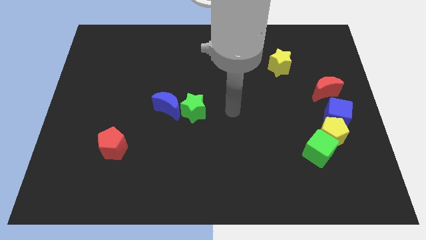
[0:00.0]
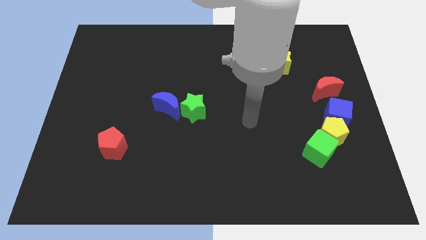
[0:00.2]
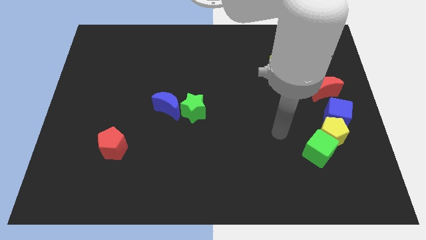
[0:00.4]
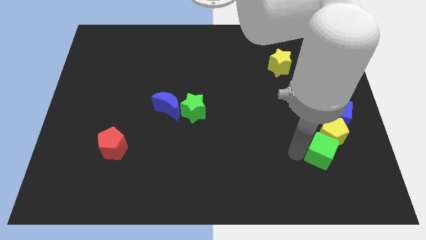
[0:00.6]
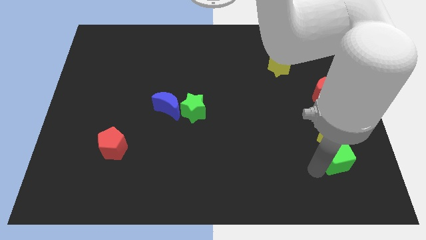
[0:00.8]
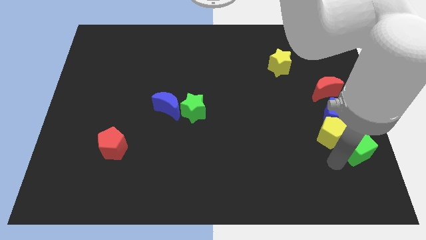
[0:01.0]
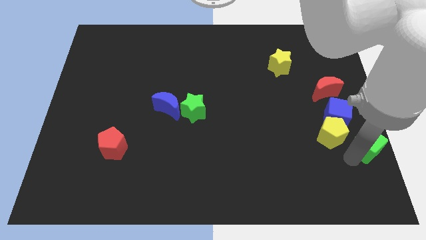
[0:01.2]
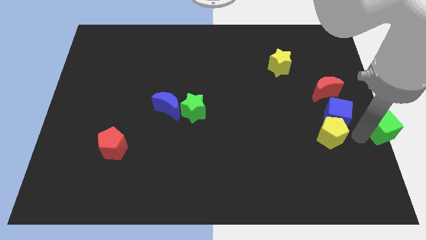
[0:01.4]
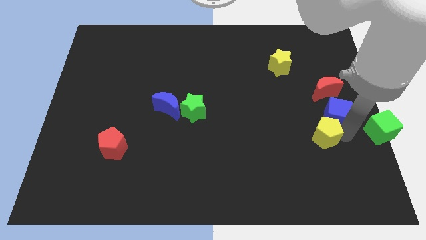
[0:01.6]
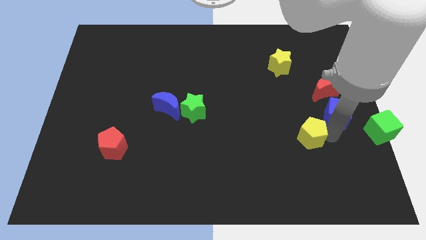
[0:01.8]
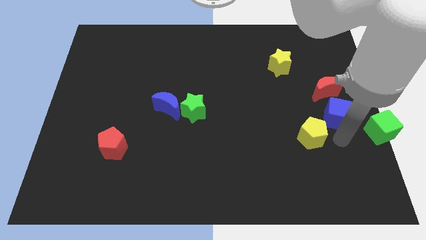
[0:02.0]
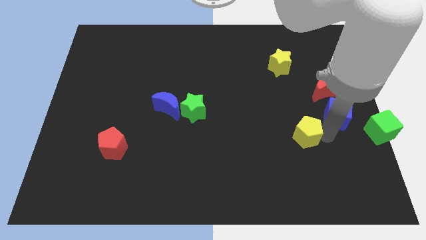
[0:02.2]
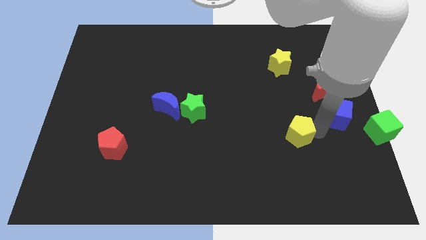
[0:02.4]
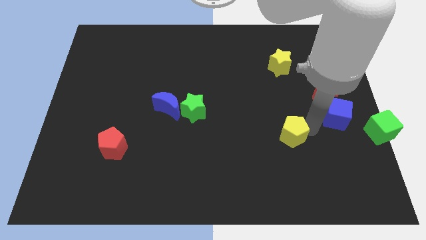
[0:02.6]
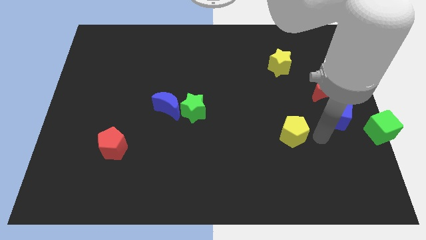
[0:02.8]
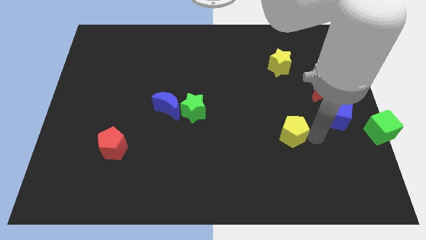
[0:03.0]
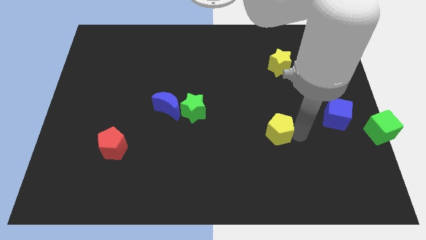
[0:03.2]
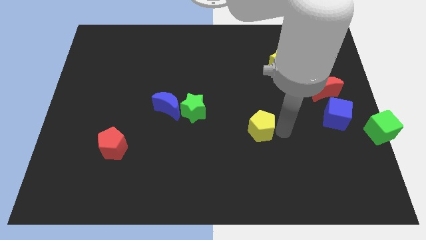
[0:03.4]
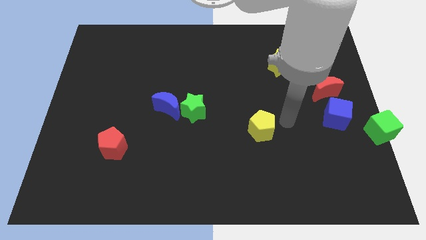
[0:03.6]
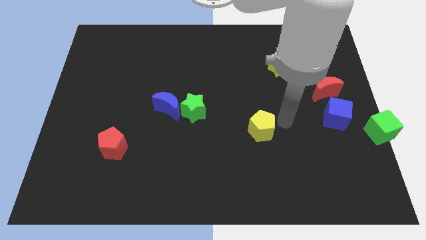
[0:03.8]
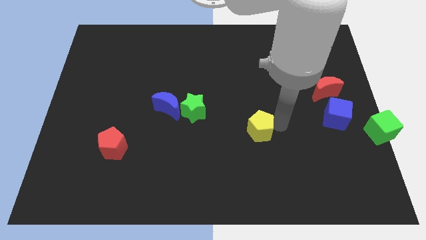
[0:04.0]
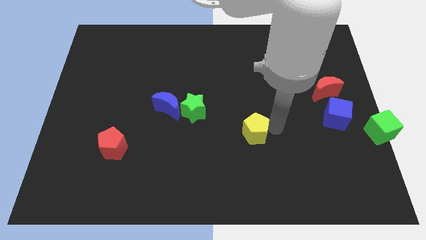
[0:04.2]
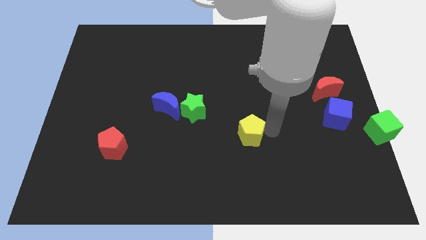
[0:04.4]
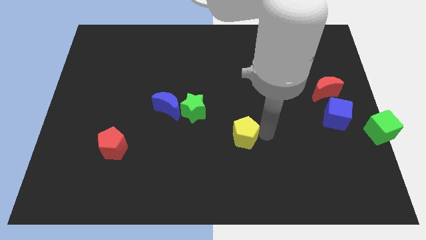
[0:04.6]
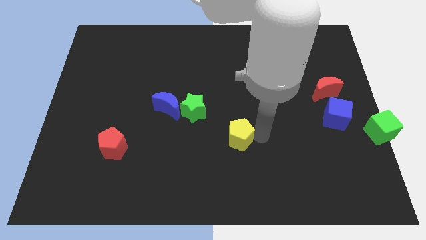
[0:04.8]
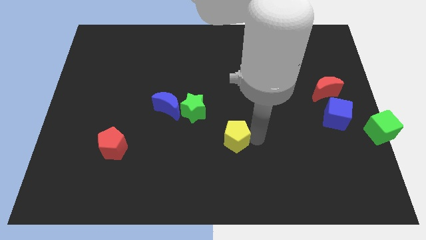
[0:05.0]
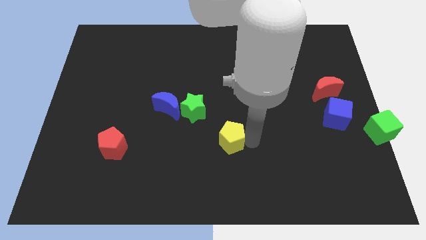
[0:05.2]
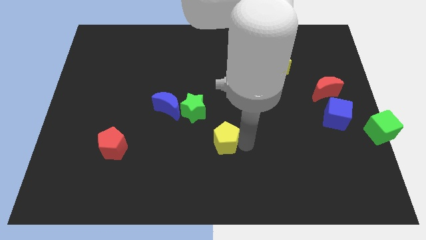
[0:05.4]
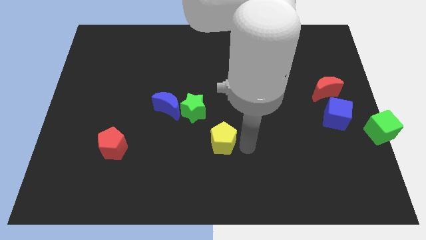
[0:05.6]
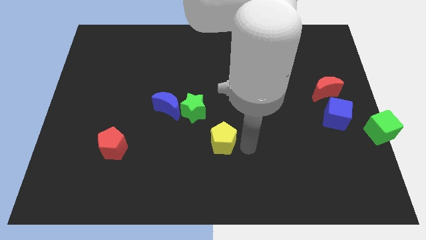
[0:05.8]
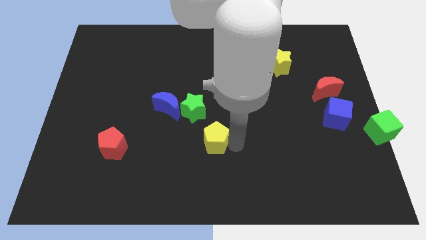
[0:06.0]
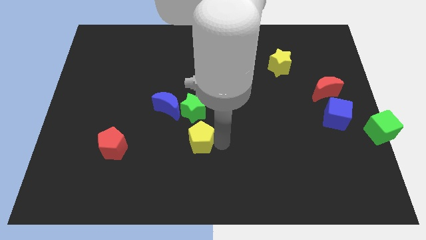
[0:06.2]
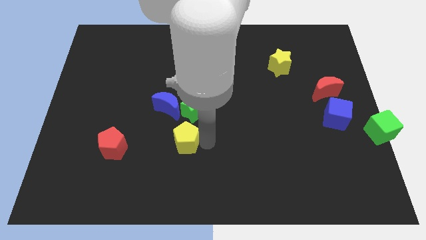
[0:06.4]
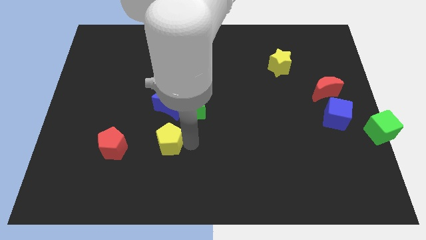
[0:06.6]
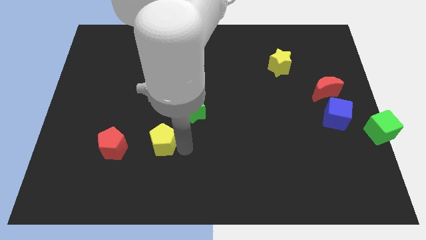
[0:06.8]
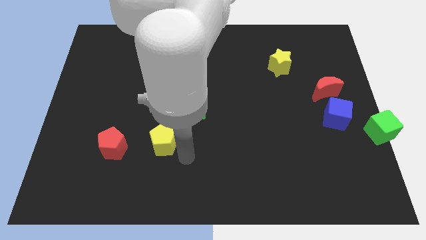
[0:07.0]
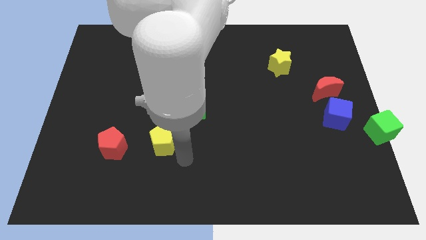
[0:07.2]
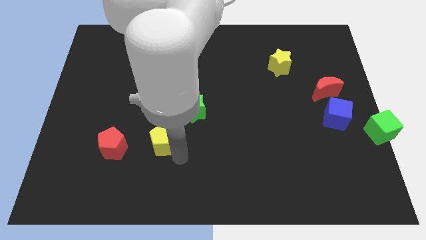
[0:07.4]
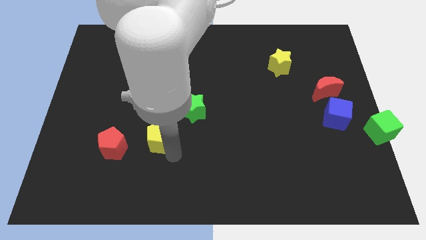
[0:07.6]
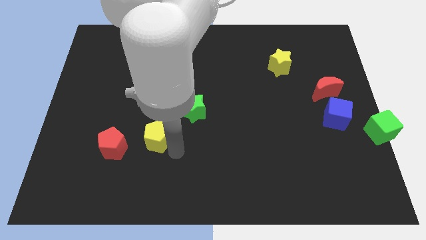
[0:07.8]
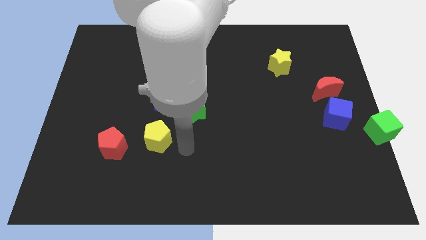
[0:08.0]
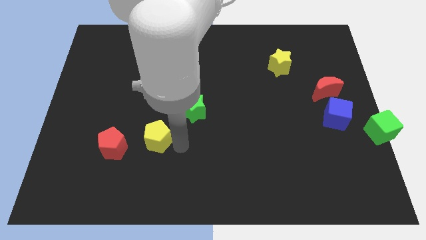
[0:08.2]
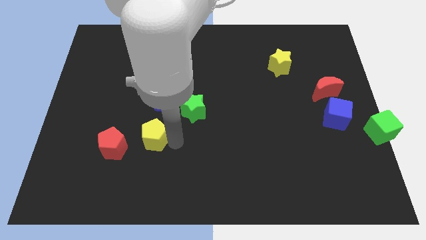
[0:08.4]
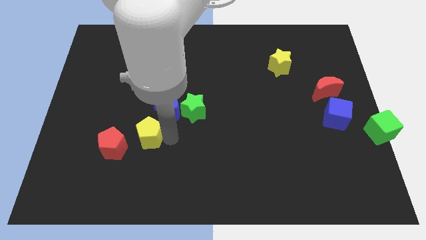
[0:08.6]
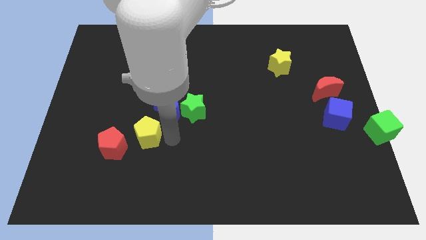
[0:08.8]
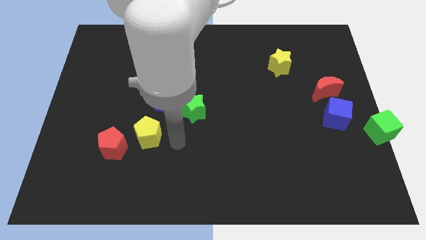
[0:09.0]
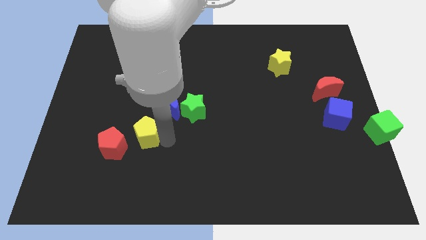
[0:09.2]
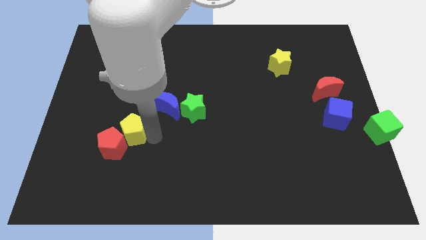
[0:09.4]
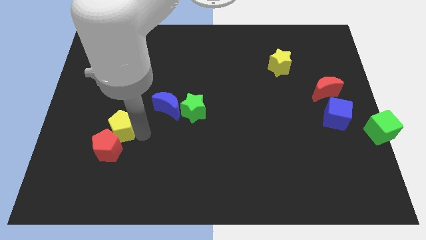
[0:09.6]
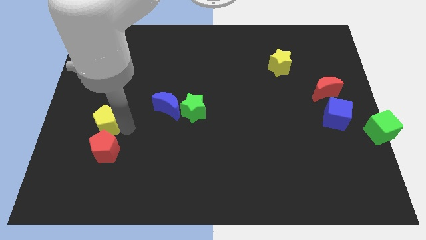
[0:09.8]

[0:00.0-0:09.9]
push the yellow pentagon to the top left of the red pentagon

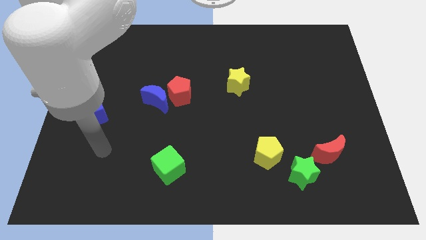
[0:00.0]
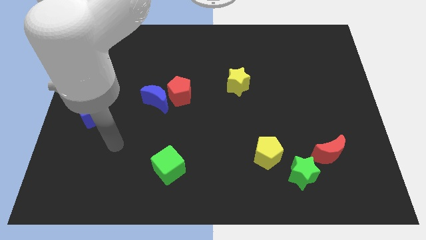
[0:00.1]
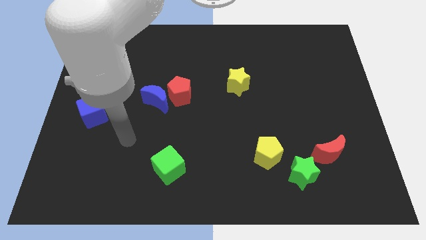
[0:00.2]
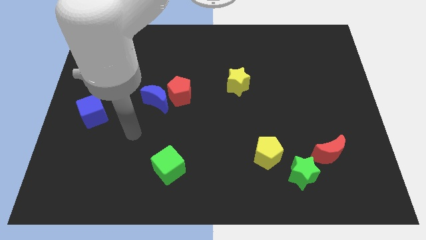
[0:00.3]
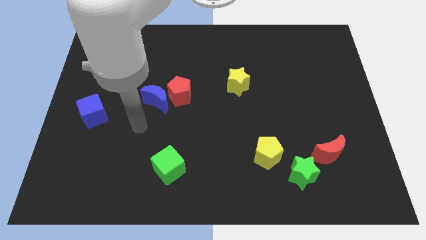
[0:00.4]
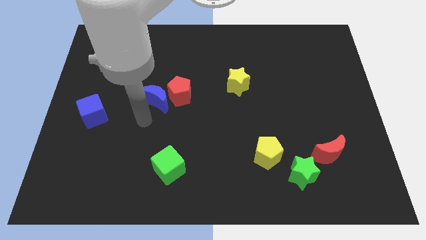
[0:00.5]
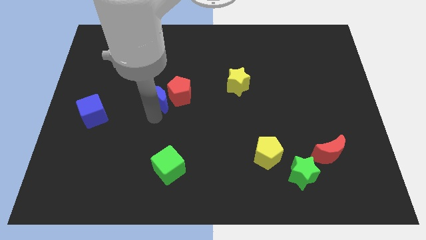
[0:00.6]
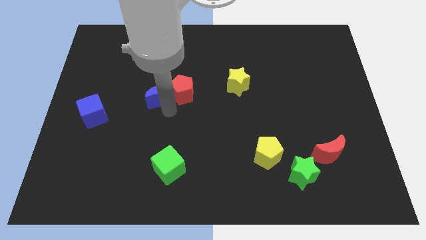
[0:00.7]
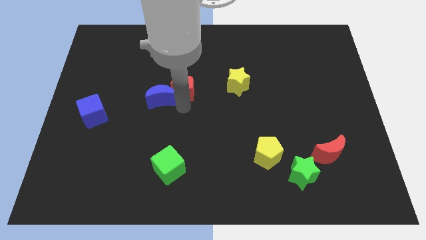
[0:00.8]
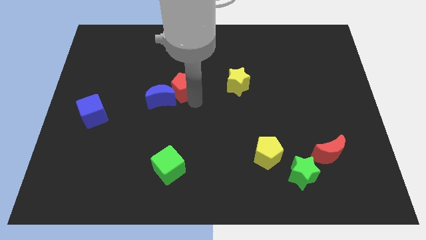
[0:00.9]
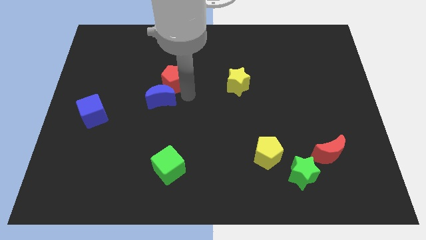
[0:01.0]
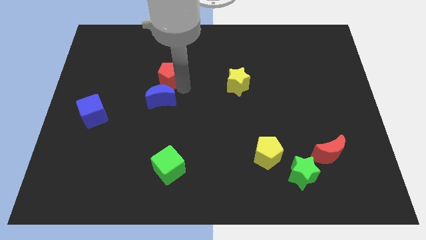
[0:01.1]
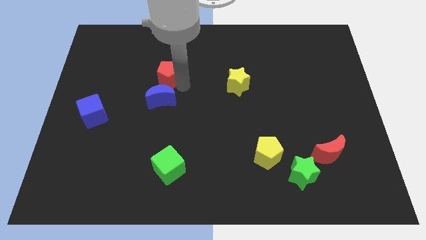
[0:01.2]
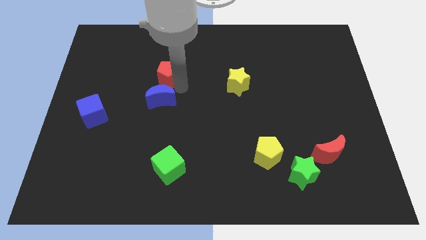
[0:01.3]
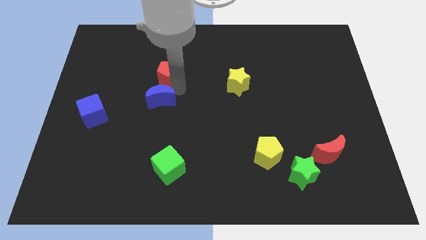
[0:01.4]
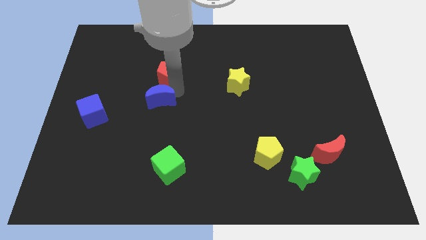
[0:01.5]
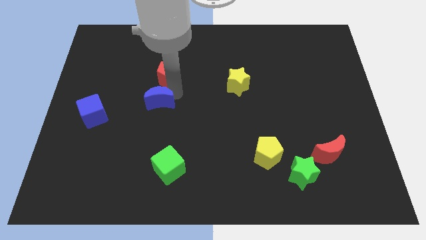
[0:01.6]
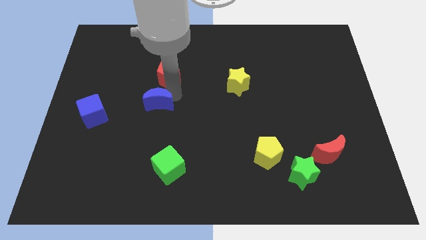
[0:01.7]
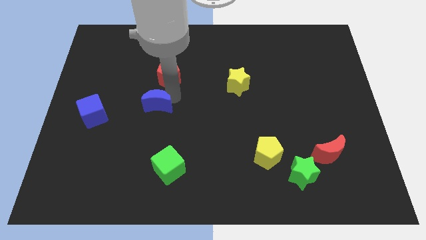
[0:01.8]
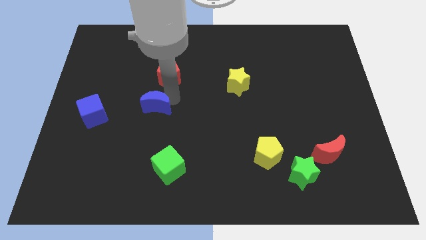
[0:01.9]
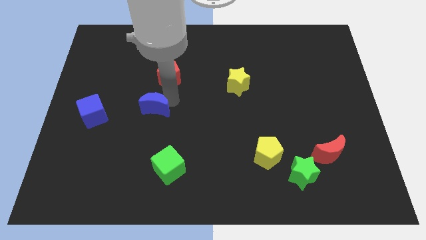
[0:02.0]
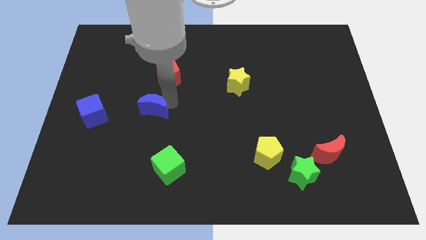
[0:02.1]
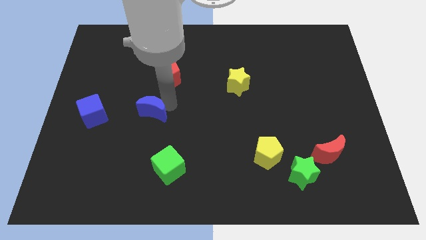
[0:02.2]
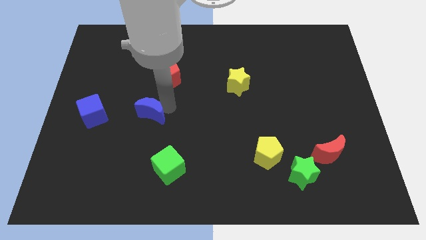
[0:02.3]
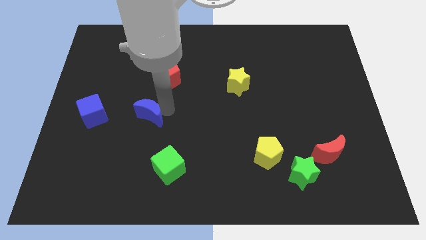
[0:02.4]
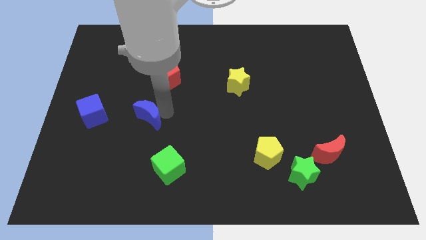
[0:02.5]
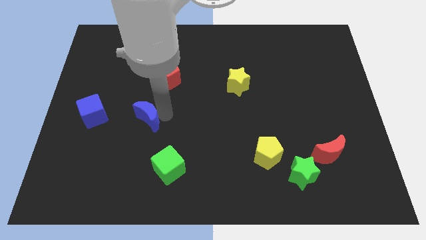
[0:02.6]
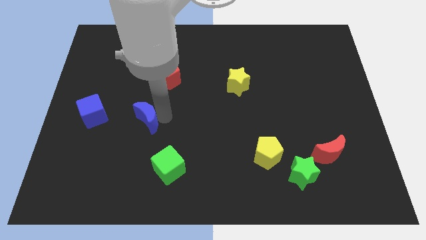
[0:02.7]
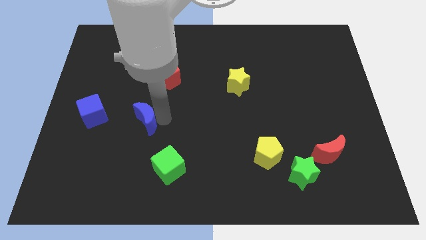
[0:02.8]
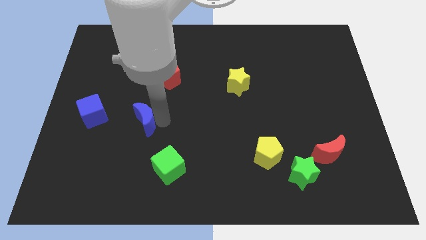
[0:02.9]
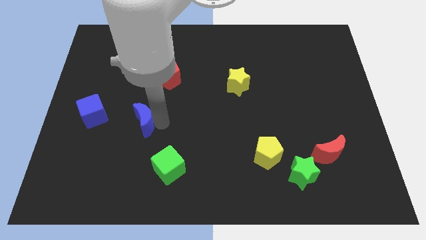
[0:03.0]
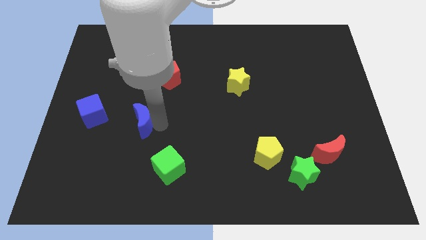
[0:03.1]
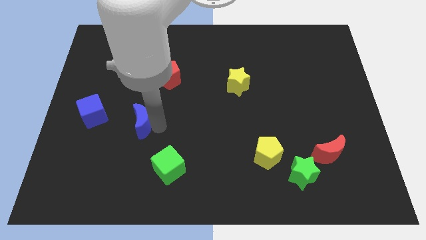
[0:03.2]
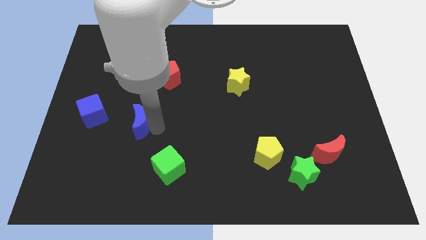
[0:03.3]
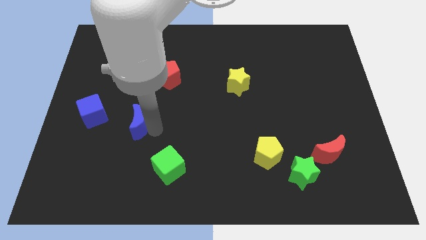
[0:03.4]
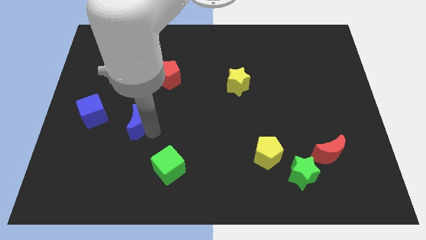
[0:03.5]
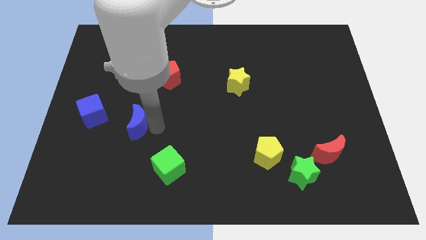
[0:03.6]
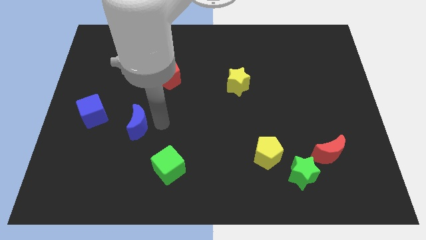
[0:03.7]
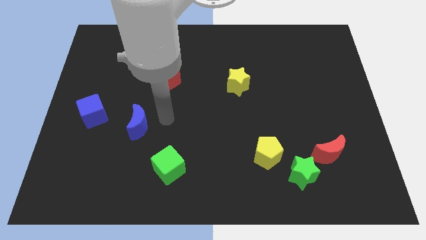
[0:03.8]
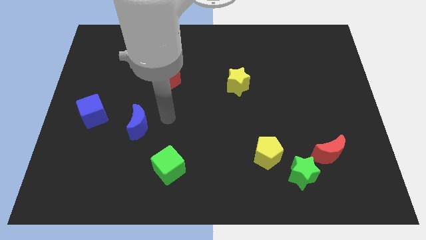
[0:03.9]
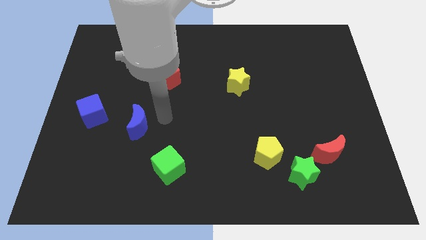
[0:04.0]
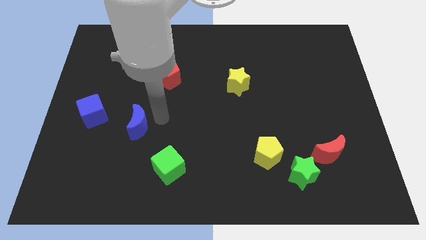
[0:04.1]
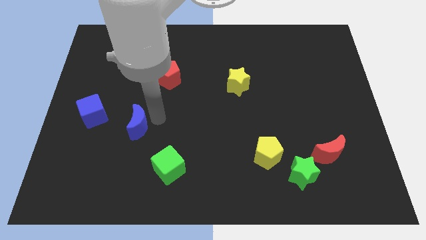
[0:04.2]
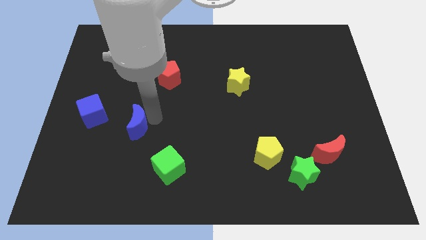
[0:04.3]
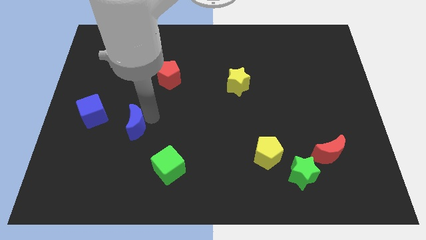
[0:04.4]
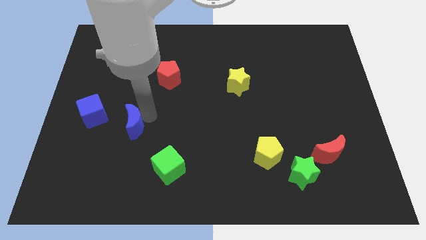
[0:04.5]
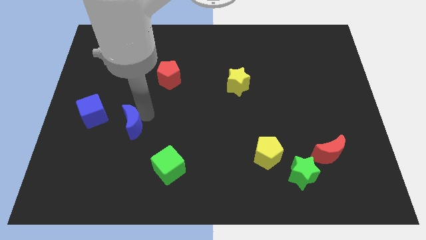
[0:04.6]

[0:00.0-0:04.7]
slide the blue moon diagonally down and to the right of the blue cube
